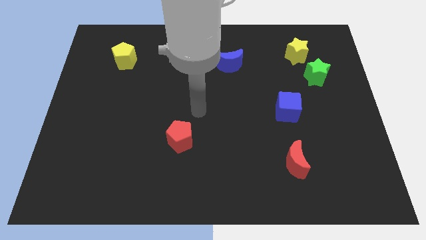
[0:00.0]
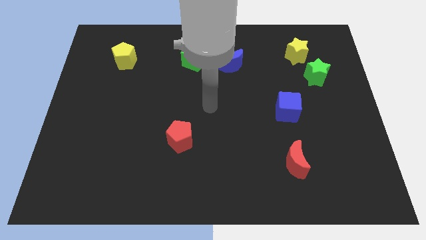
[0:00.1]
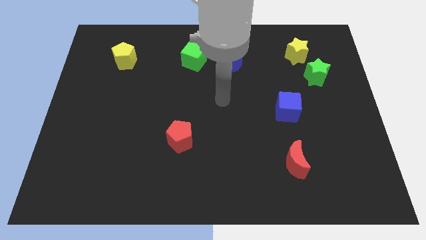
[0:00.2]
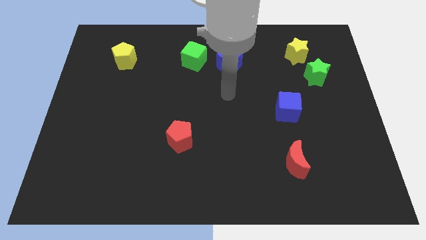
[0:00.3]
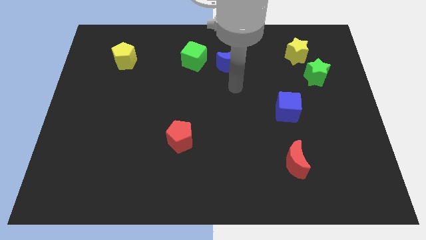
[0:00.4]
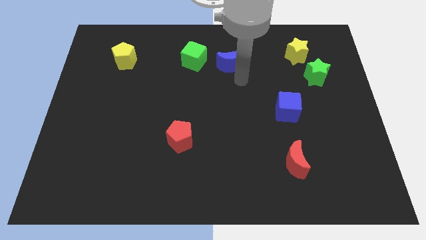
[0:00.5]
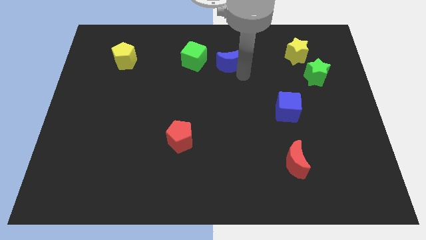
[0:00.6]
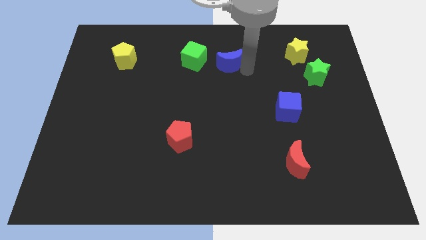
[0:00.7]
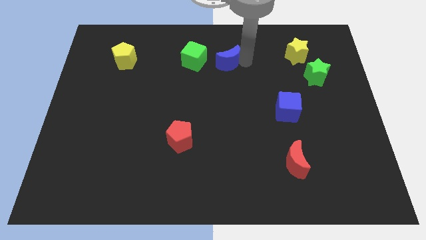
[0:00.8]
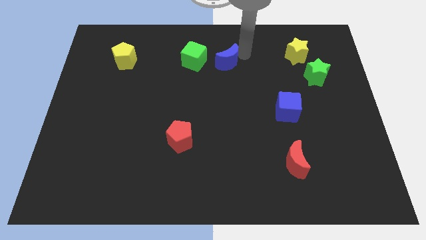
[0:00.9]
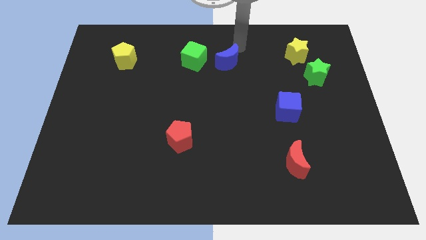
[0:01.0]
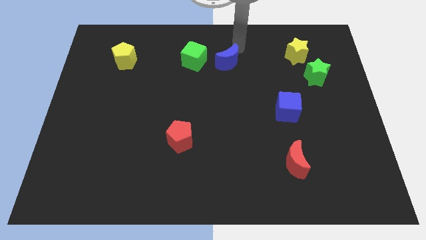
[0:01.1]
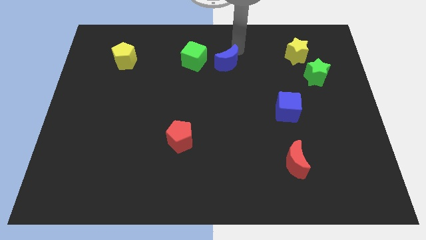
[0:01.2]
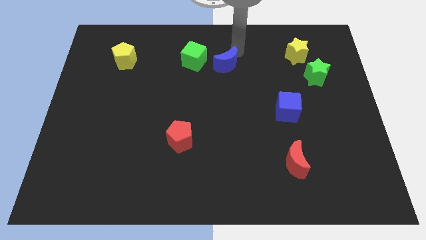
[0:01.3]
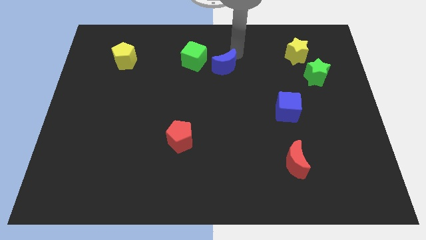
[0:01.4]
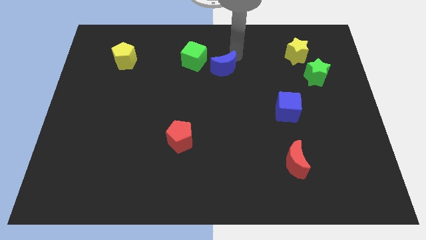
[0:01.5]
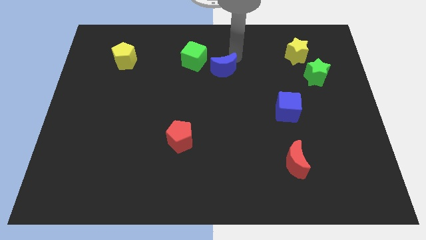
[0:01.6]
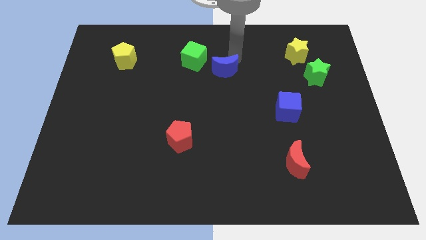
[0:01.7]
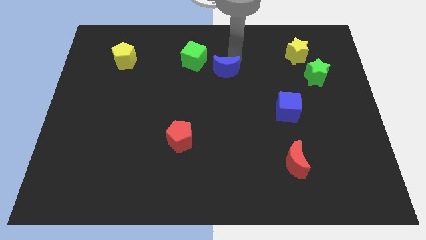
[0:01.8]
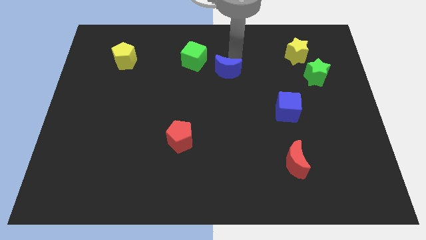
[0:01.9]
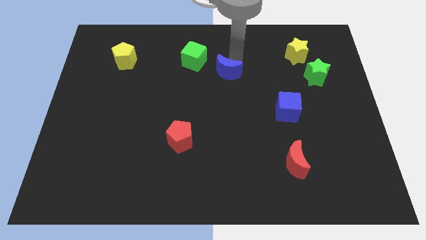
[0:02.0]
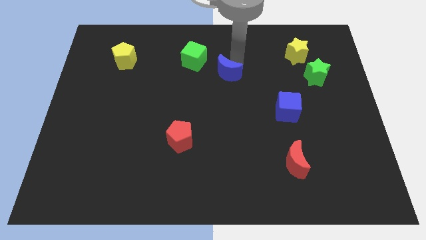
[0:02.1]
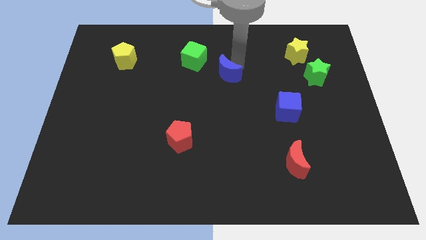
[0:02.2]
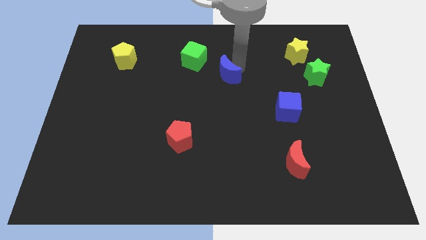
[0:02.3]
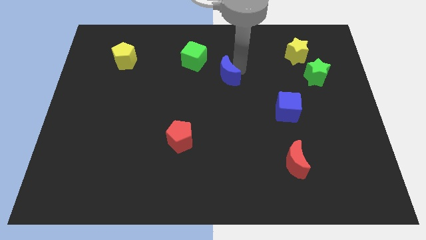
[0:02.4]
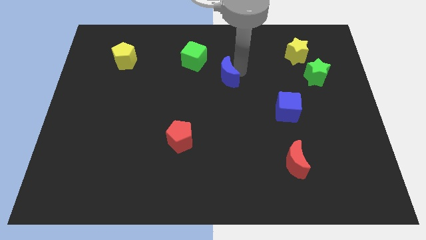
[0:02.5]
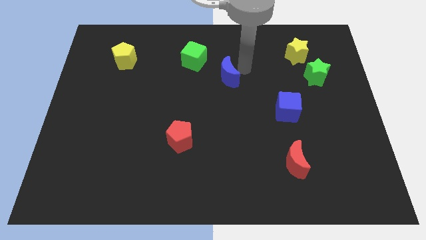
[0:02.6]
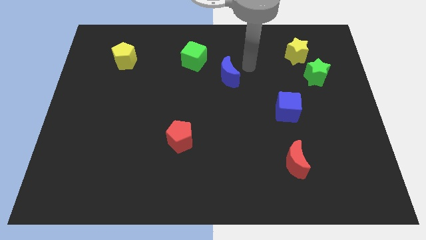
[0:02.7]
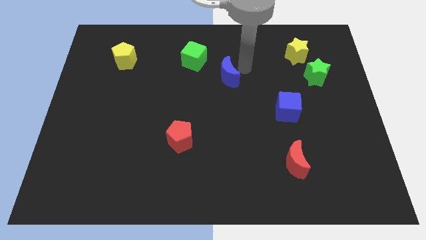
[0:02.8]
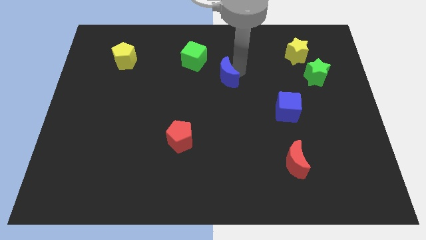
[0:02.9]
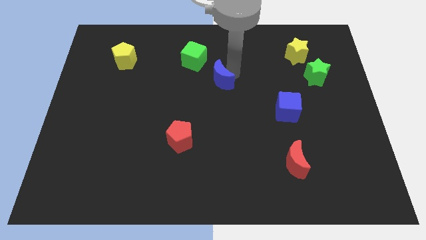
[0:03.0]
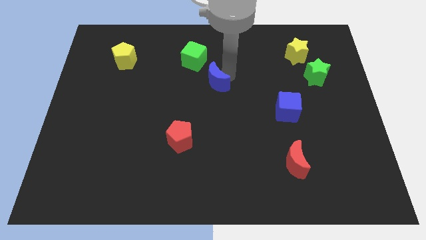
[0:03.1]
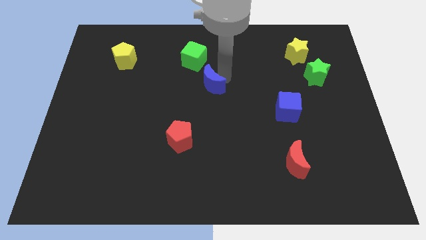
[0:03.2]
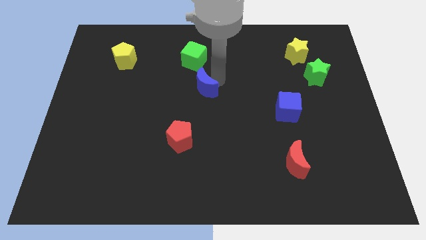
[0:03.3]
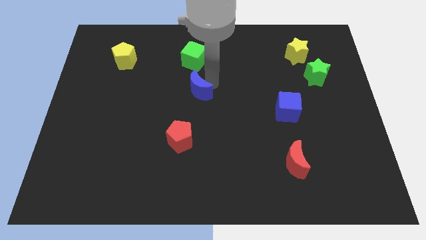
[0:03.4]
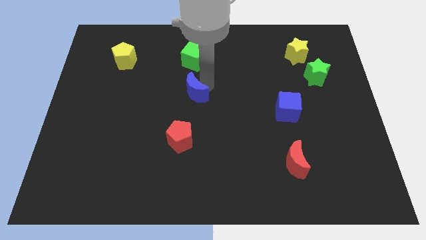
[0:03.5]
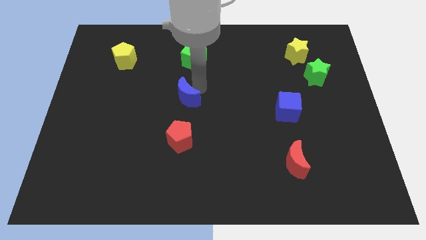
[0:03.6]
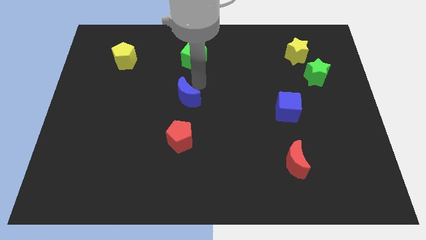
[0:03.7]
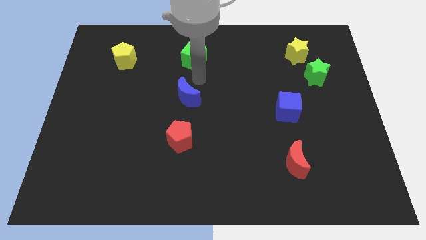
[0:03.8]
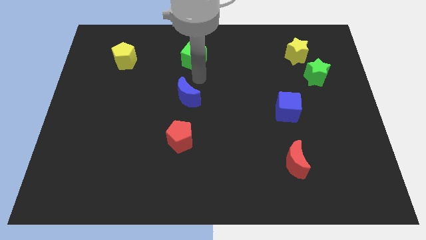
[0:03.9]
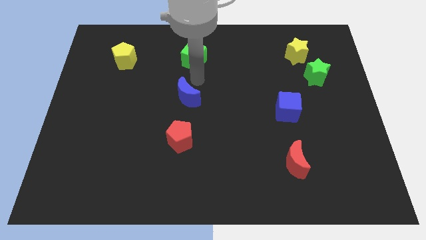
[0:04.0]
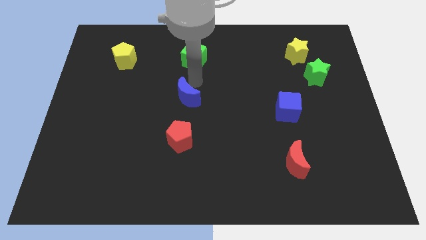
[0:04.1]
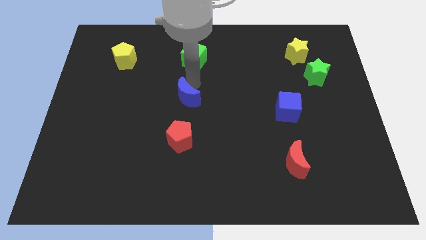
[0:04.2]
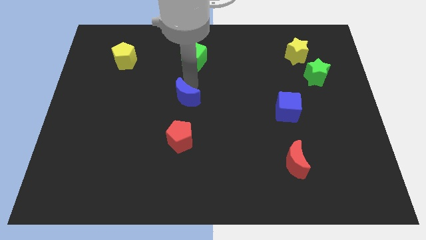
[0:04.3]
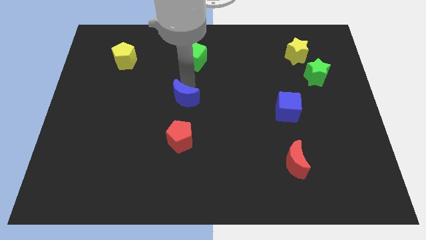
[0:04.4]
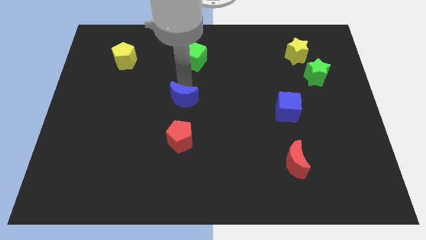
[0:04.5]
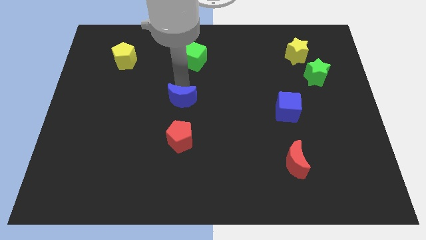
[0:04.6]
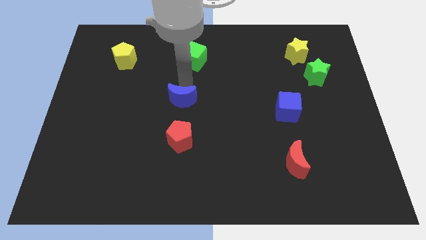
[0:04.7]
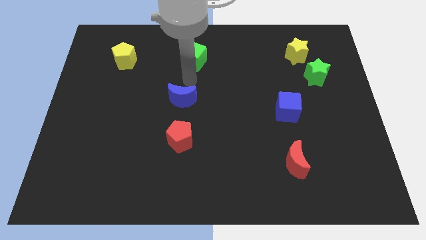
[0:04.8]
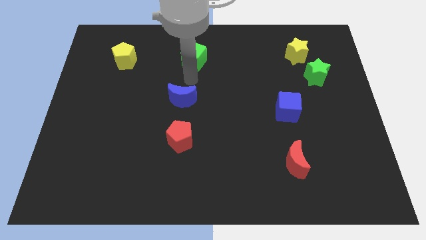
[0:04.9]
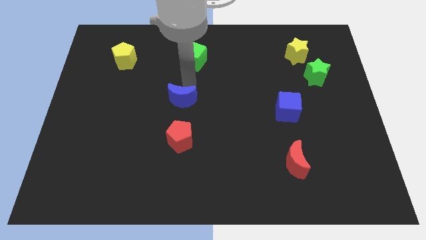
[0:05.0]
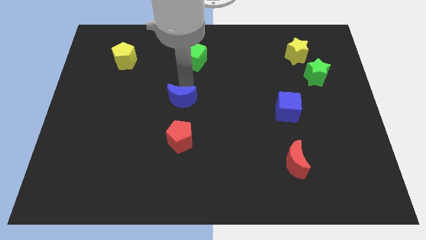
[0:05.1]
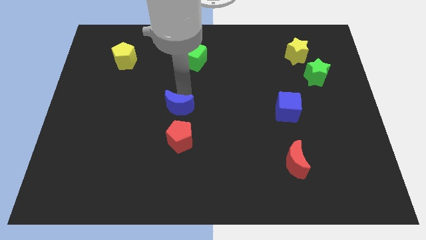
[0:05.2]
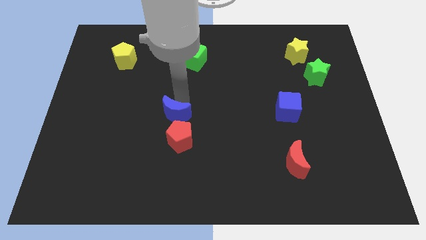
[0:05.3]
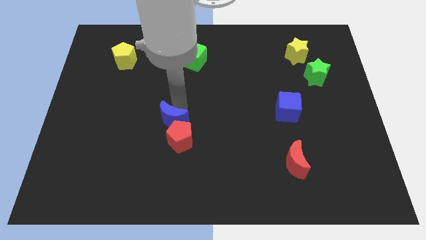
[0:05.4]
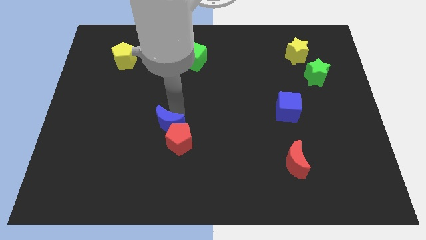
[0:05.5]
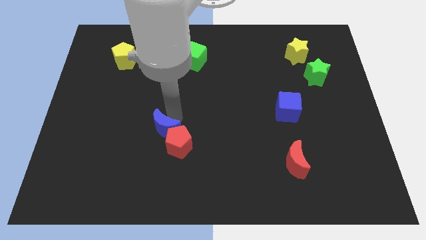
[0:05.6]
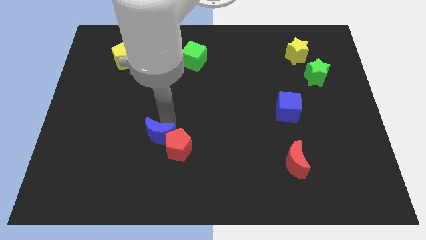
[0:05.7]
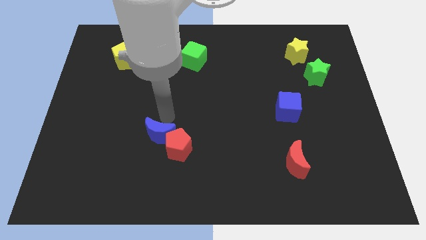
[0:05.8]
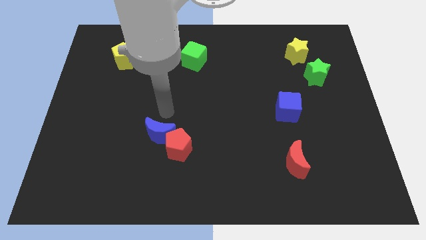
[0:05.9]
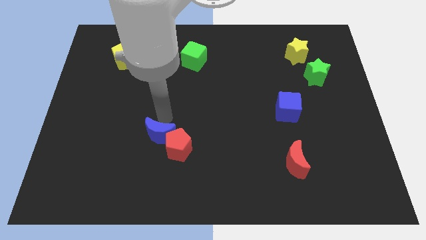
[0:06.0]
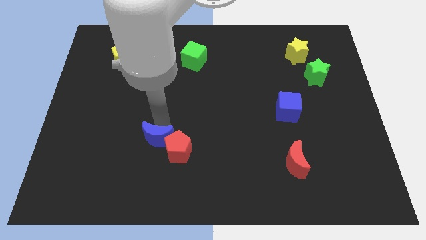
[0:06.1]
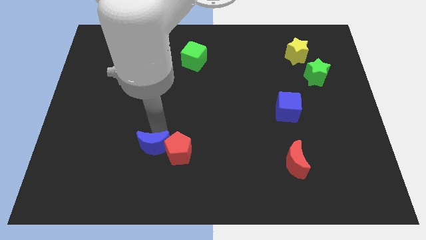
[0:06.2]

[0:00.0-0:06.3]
slide the blue moon to the bottom left side of the red pentagon
